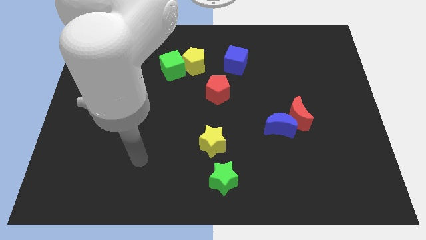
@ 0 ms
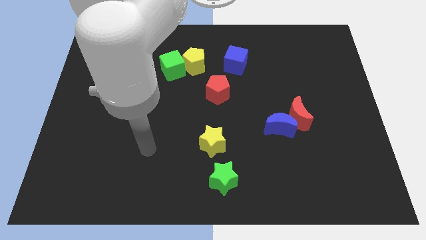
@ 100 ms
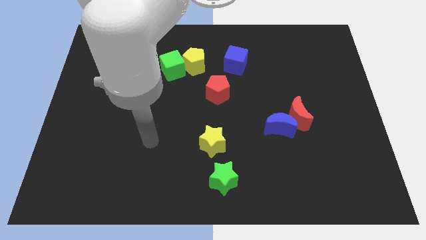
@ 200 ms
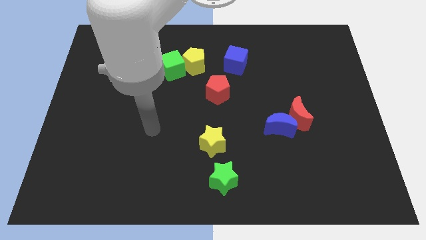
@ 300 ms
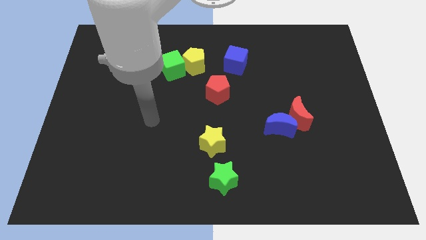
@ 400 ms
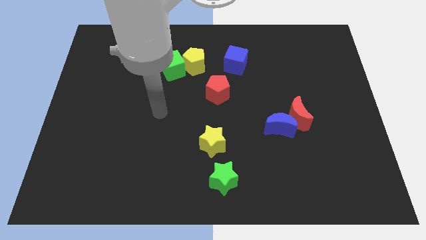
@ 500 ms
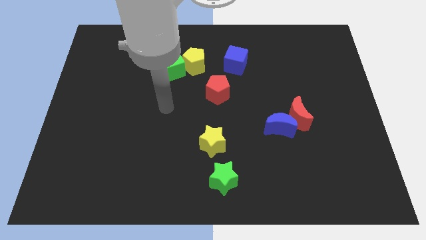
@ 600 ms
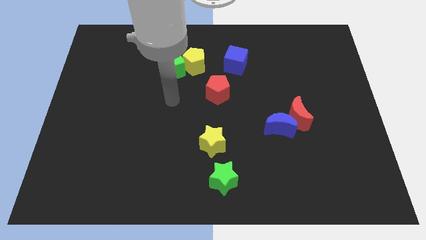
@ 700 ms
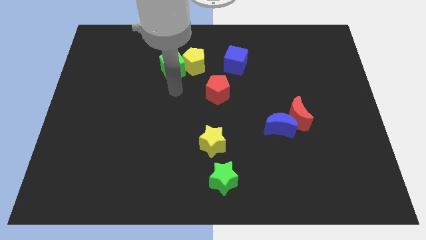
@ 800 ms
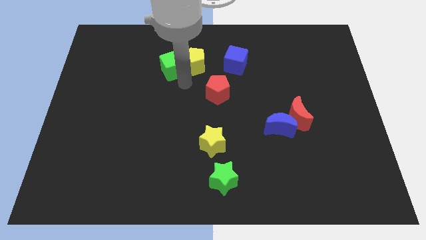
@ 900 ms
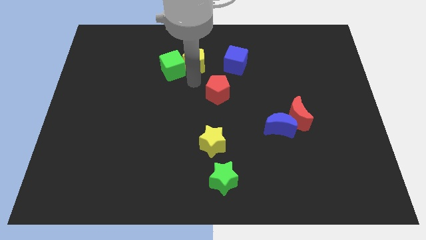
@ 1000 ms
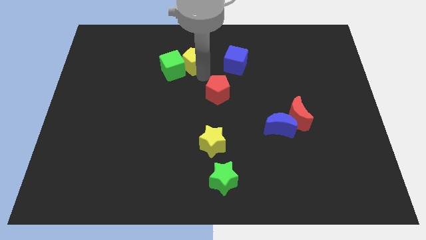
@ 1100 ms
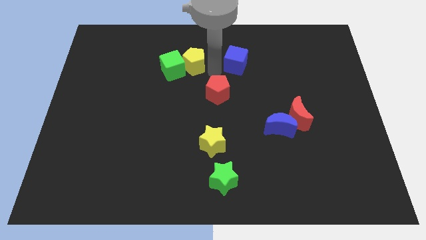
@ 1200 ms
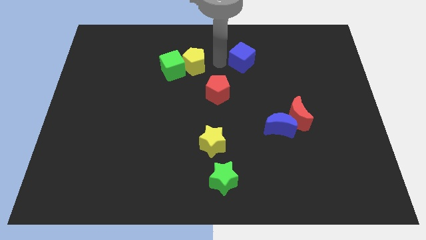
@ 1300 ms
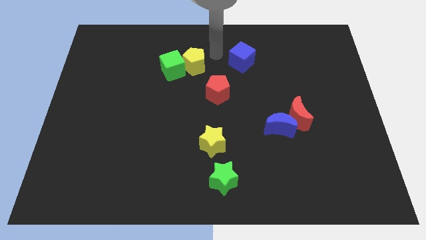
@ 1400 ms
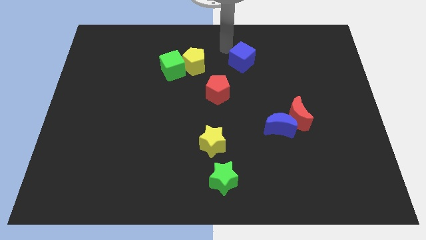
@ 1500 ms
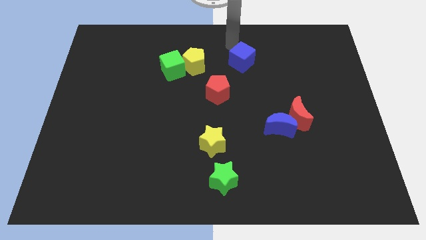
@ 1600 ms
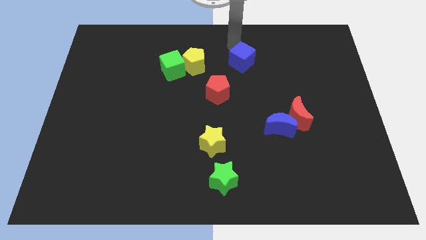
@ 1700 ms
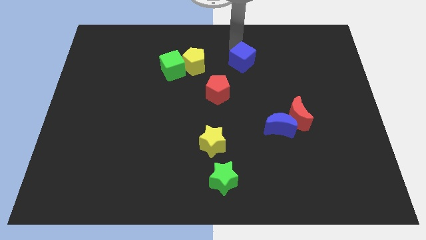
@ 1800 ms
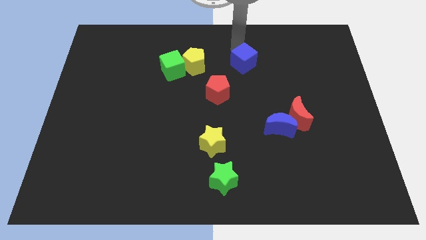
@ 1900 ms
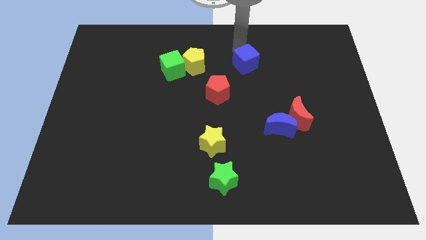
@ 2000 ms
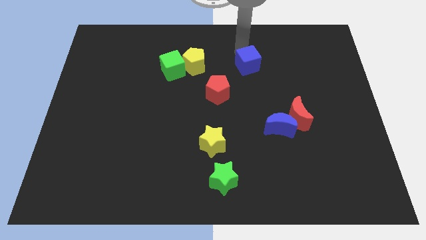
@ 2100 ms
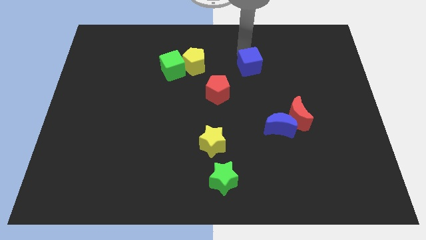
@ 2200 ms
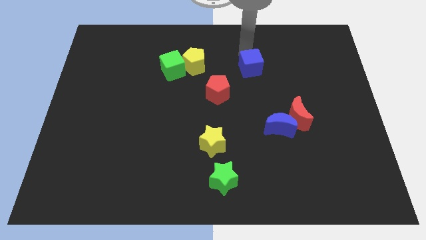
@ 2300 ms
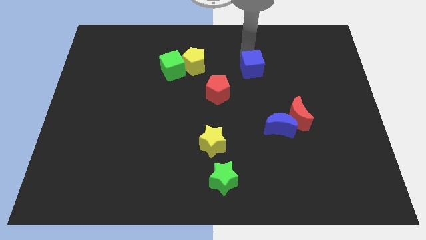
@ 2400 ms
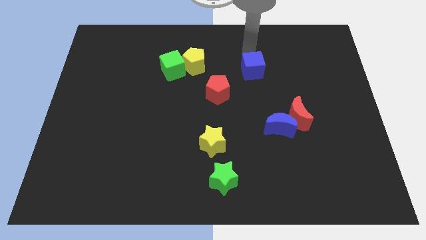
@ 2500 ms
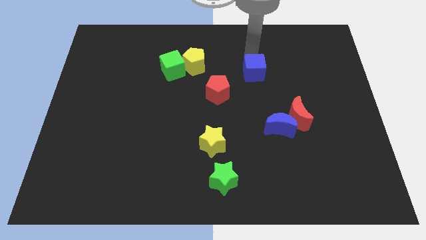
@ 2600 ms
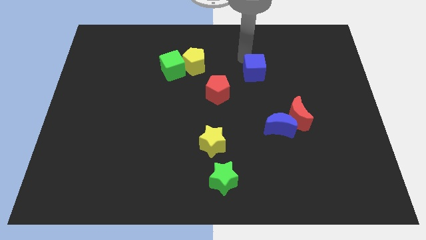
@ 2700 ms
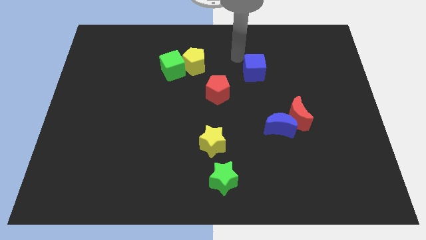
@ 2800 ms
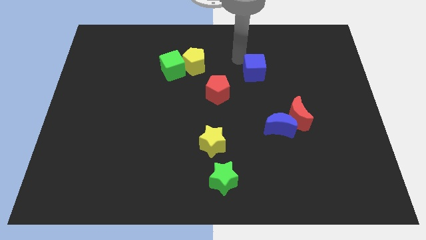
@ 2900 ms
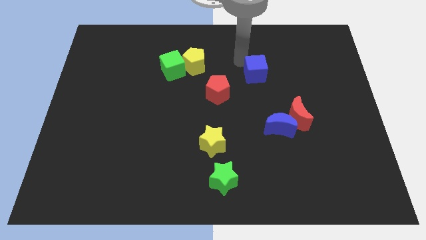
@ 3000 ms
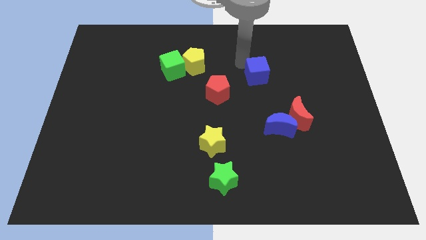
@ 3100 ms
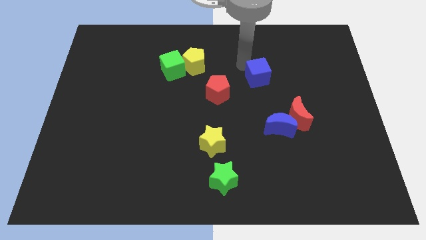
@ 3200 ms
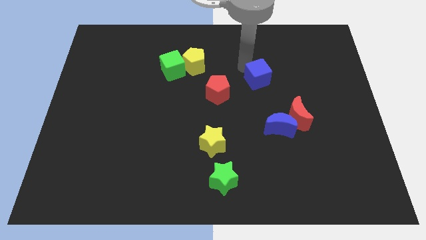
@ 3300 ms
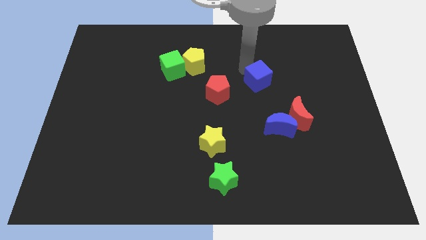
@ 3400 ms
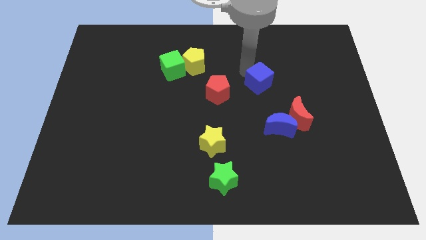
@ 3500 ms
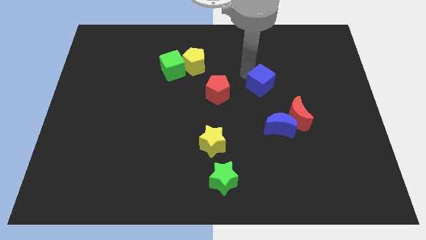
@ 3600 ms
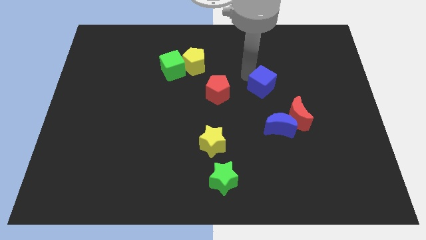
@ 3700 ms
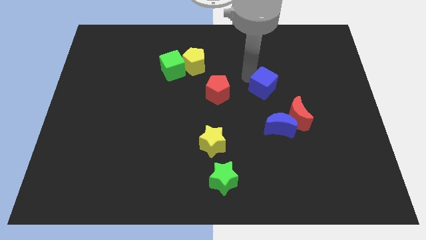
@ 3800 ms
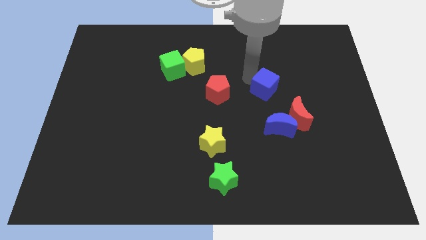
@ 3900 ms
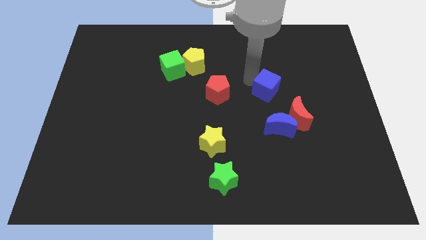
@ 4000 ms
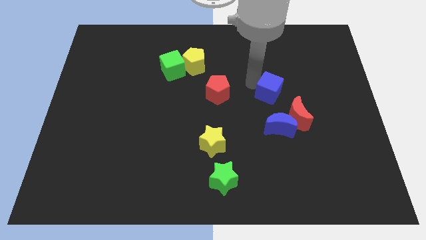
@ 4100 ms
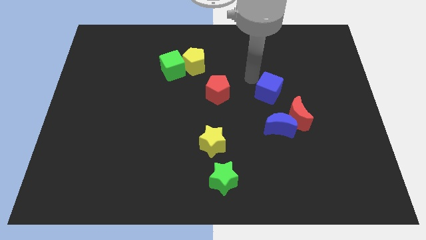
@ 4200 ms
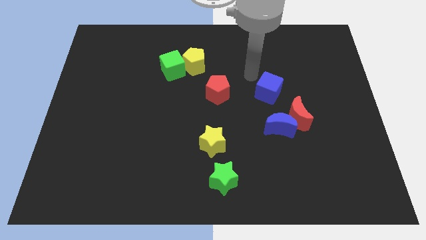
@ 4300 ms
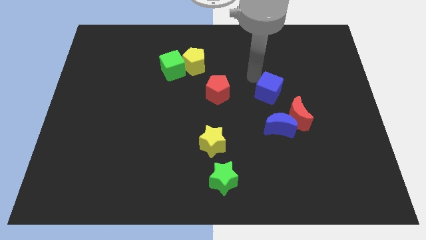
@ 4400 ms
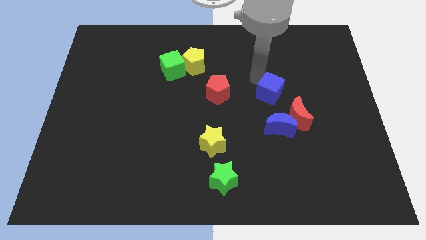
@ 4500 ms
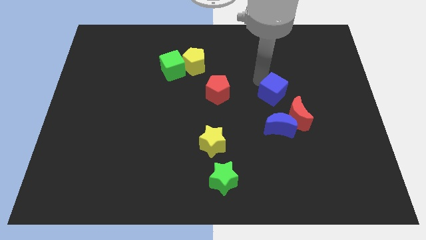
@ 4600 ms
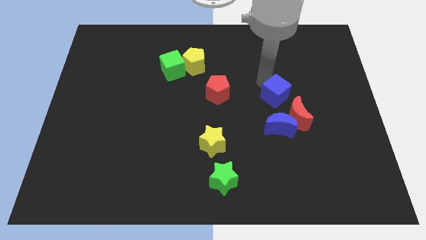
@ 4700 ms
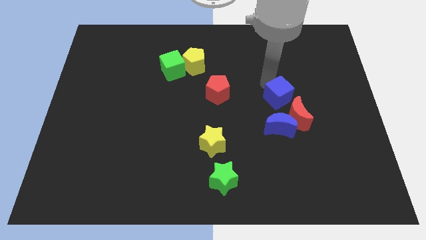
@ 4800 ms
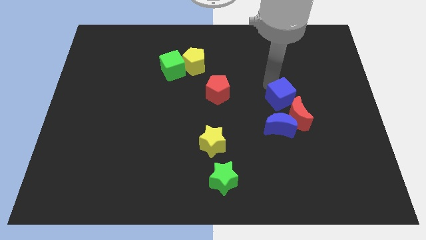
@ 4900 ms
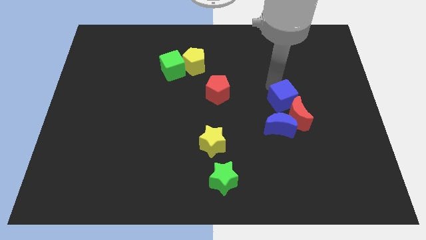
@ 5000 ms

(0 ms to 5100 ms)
slide the blue cube close to the red moon

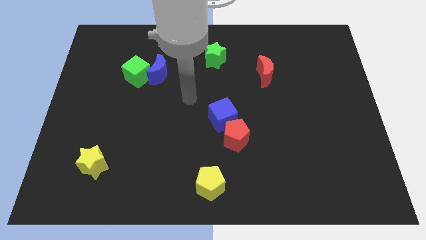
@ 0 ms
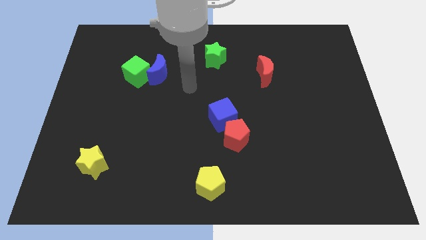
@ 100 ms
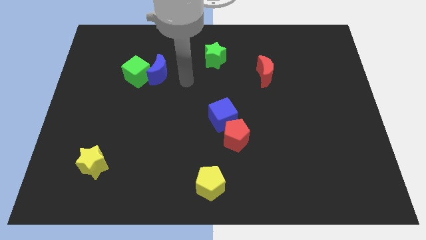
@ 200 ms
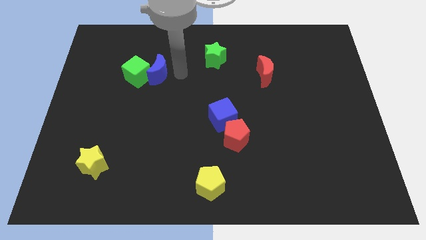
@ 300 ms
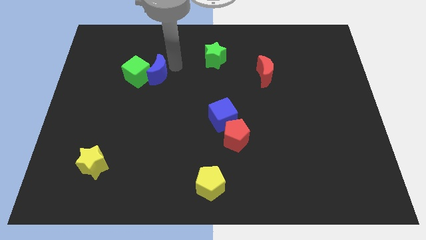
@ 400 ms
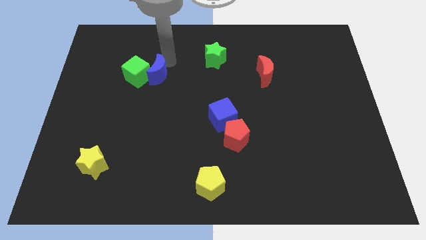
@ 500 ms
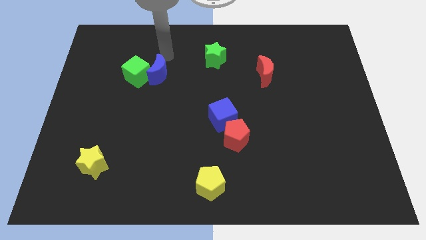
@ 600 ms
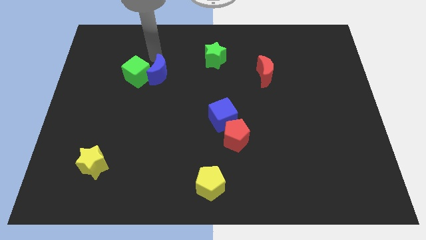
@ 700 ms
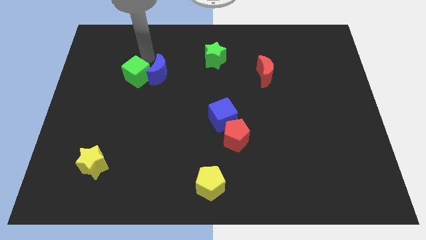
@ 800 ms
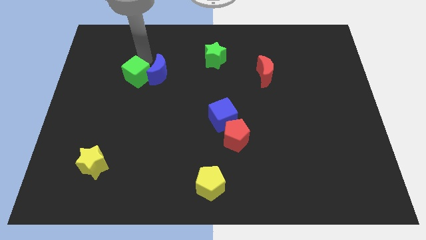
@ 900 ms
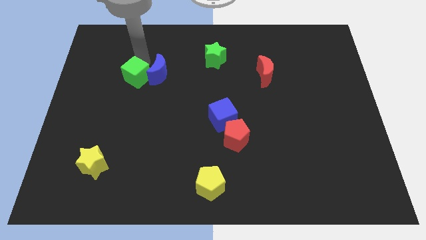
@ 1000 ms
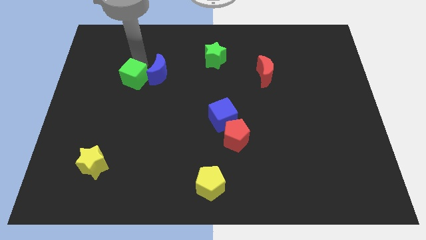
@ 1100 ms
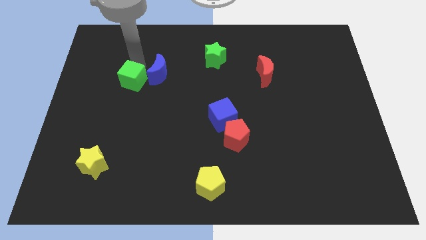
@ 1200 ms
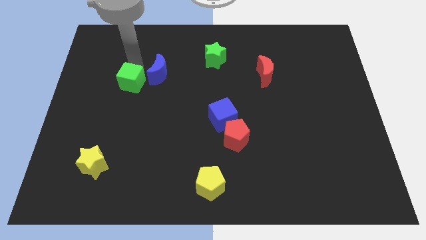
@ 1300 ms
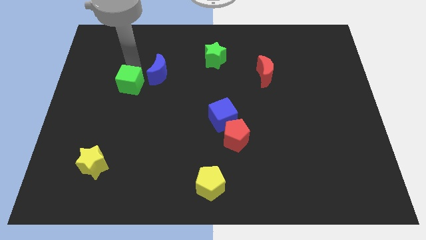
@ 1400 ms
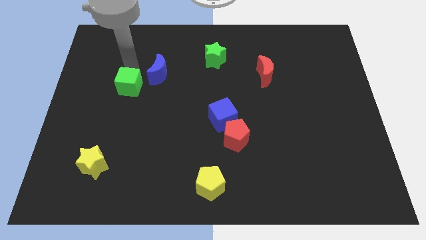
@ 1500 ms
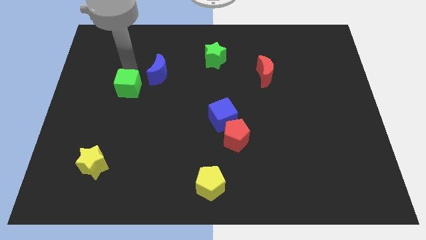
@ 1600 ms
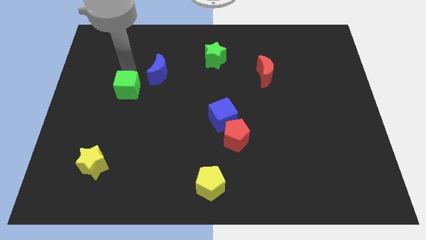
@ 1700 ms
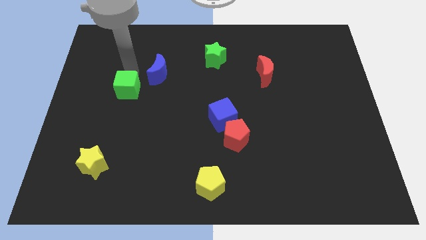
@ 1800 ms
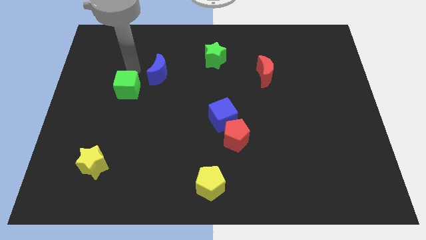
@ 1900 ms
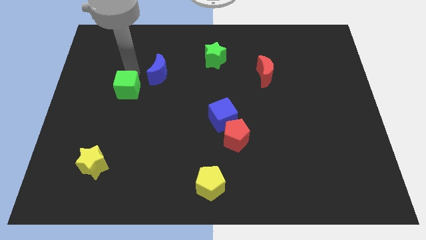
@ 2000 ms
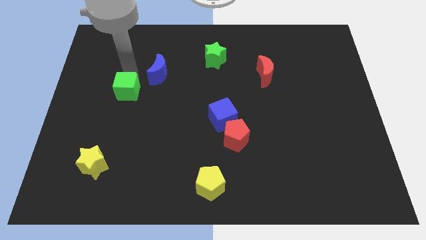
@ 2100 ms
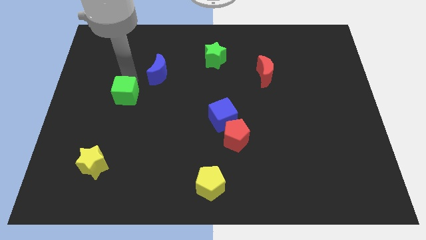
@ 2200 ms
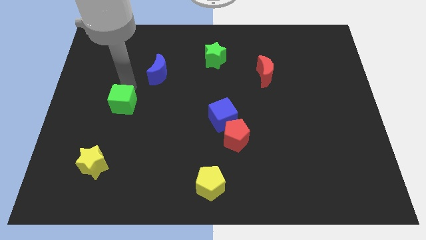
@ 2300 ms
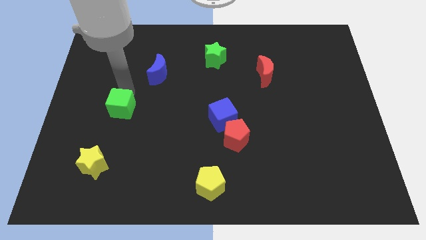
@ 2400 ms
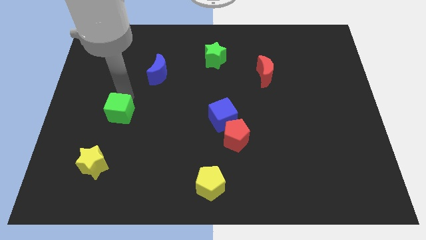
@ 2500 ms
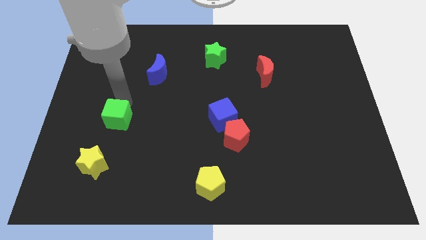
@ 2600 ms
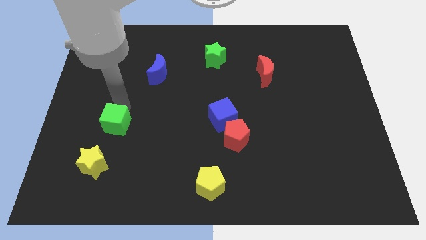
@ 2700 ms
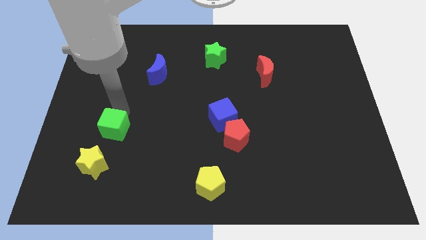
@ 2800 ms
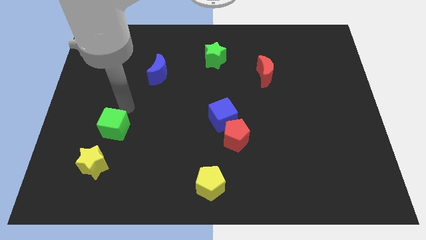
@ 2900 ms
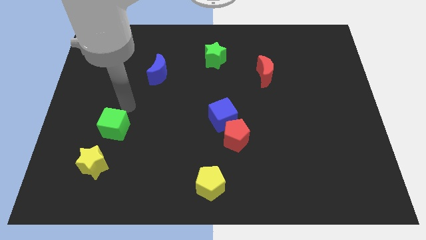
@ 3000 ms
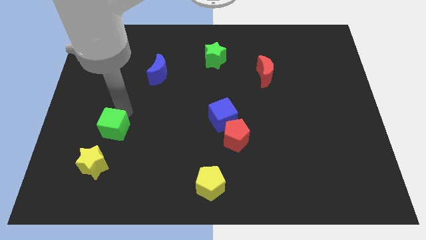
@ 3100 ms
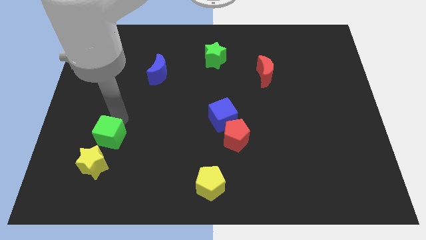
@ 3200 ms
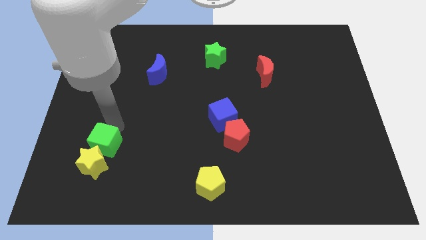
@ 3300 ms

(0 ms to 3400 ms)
move the green cube next to the yellow star
